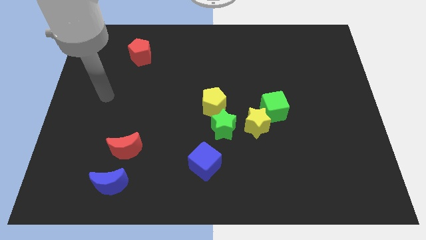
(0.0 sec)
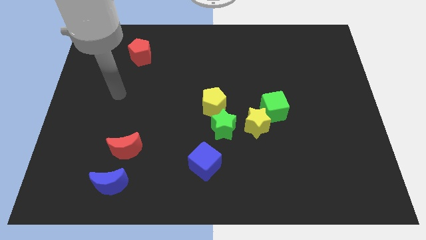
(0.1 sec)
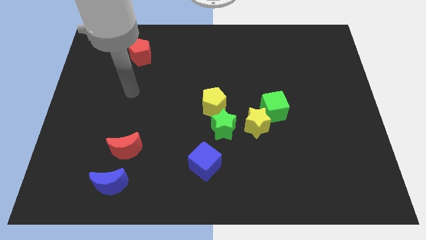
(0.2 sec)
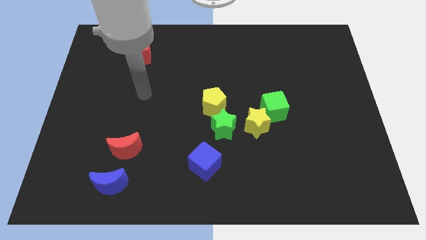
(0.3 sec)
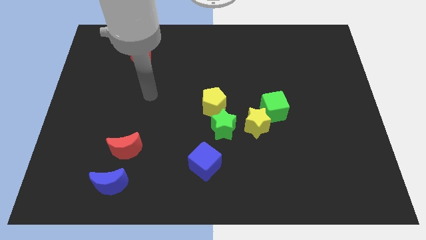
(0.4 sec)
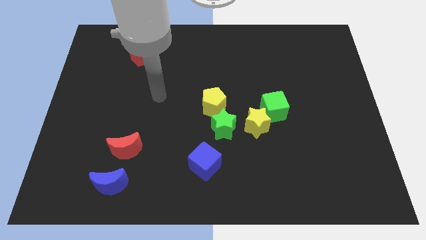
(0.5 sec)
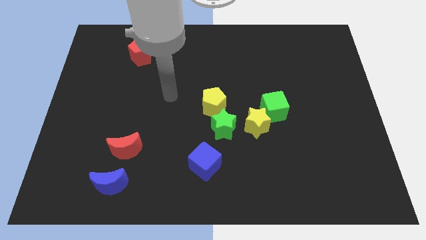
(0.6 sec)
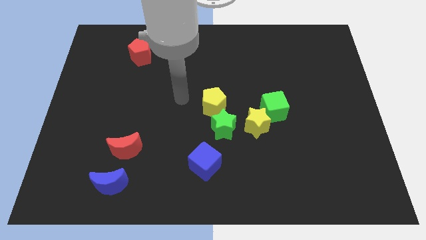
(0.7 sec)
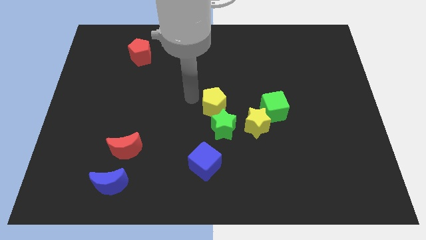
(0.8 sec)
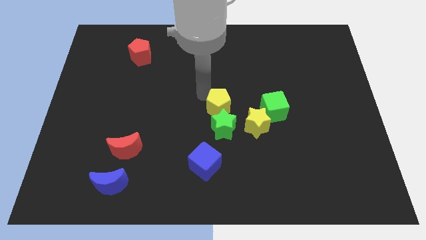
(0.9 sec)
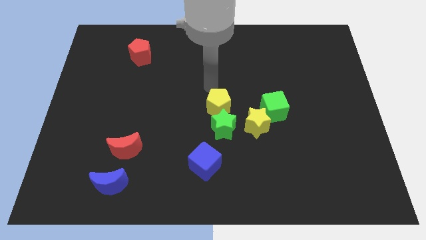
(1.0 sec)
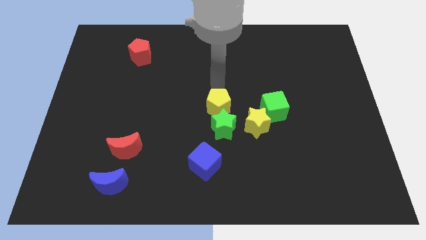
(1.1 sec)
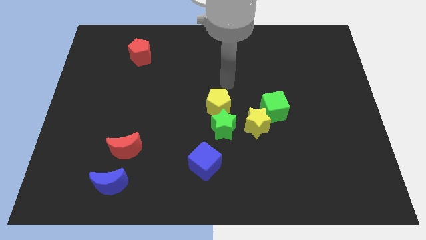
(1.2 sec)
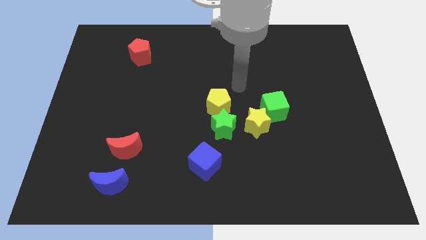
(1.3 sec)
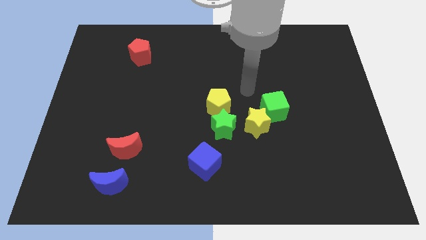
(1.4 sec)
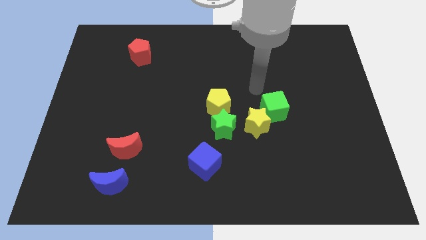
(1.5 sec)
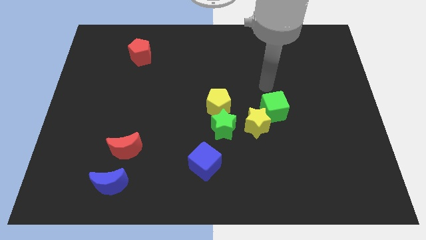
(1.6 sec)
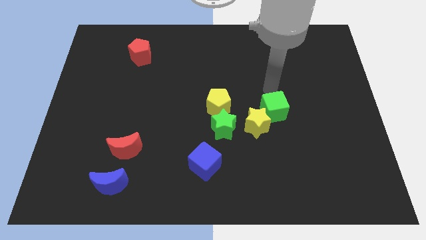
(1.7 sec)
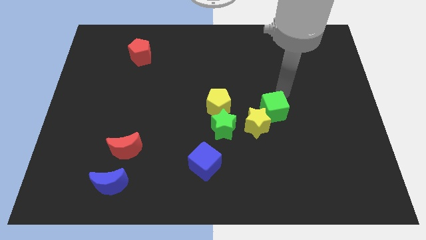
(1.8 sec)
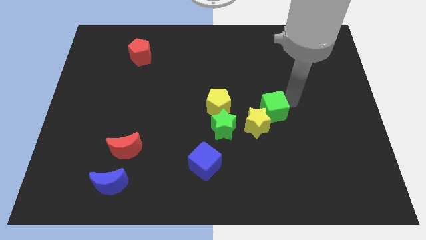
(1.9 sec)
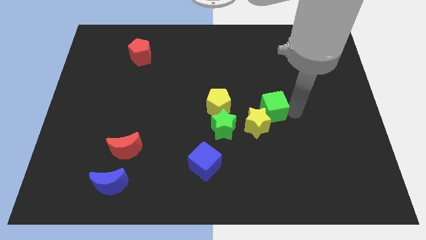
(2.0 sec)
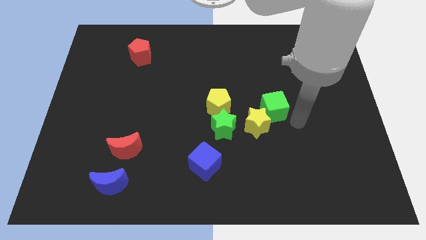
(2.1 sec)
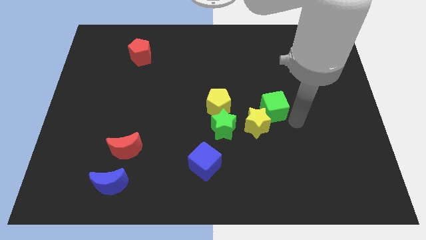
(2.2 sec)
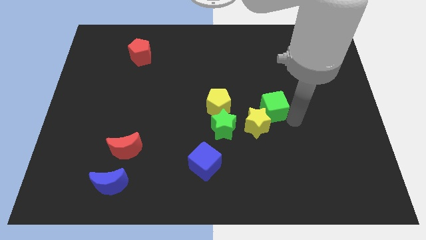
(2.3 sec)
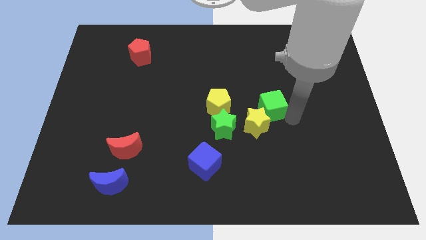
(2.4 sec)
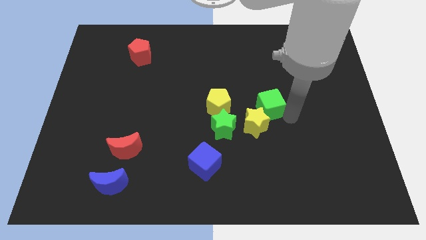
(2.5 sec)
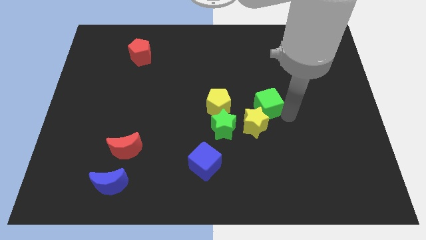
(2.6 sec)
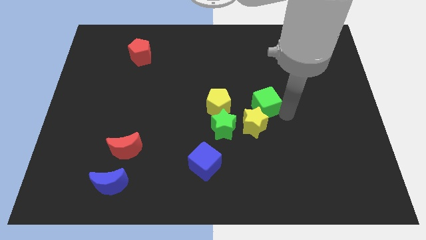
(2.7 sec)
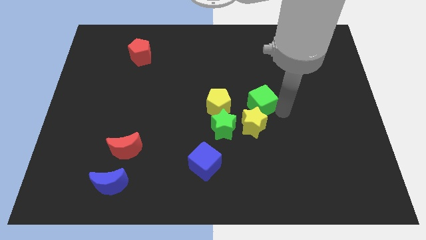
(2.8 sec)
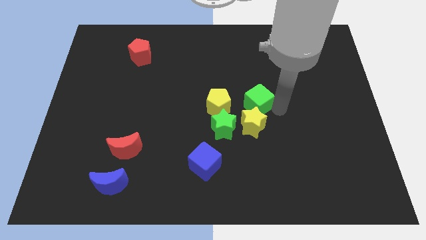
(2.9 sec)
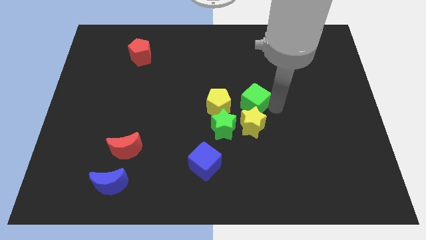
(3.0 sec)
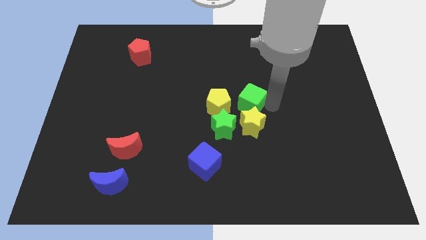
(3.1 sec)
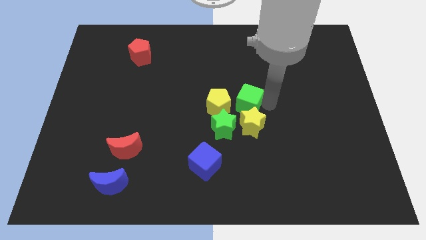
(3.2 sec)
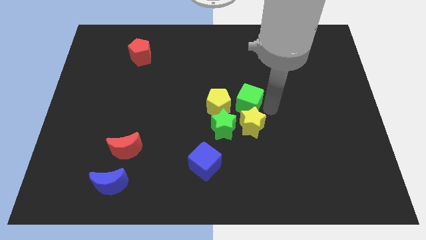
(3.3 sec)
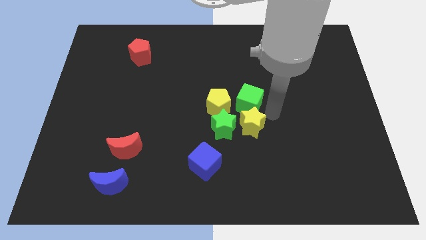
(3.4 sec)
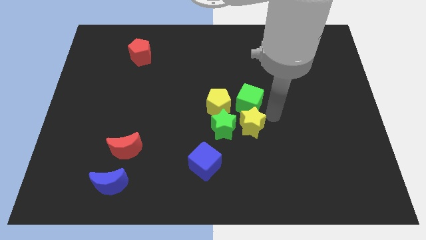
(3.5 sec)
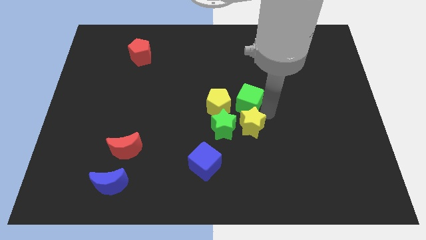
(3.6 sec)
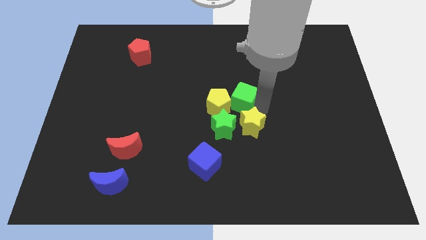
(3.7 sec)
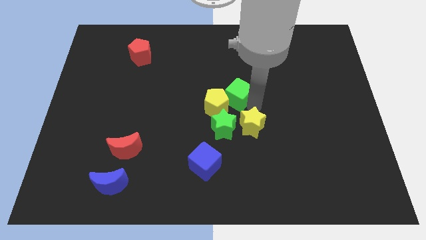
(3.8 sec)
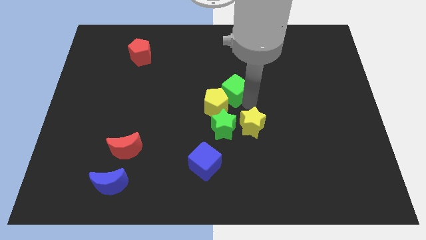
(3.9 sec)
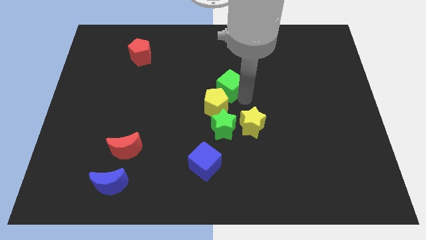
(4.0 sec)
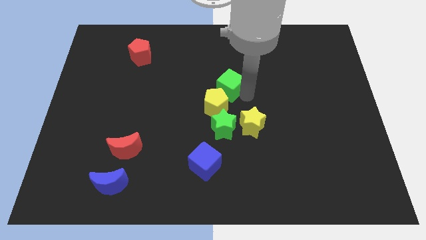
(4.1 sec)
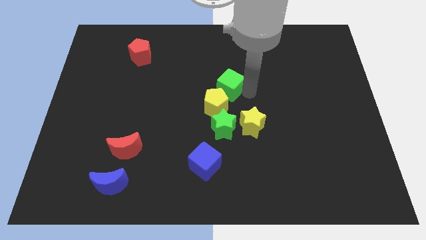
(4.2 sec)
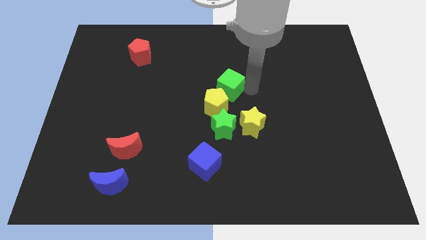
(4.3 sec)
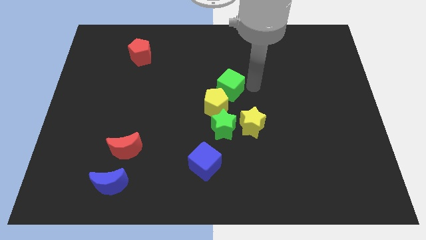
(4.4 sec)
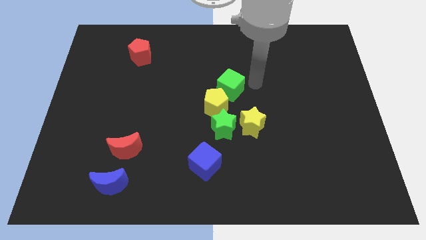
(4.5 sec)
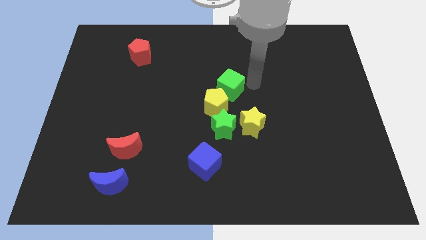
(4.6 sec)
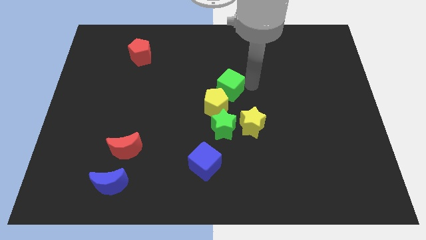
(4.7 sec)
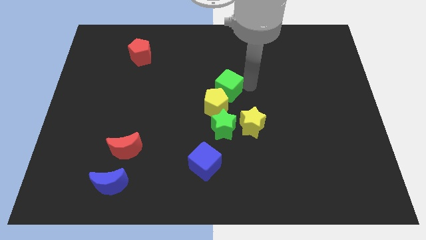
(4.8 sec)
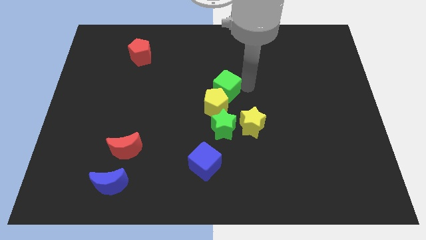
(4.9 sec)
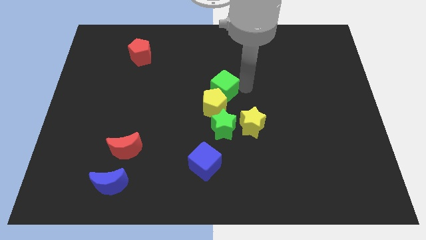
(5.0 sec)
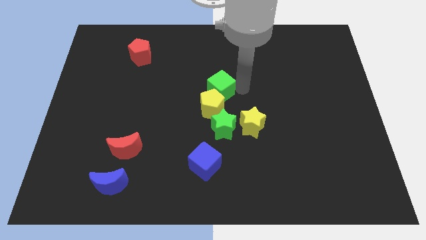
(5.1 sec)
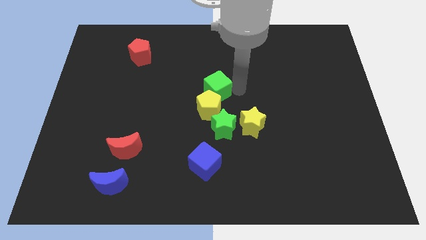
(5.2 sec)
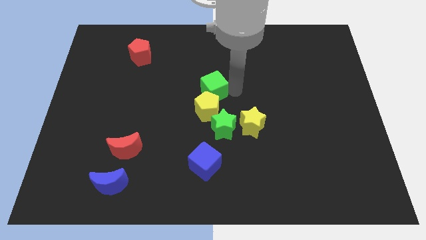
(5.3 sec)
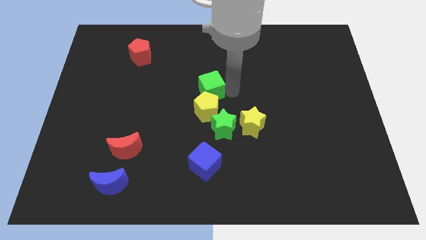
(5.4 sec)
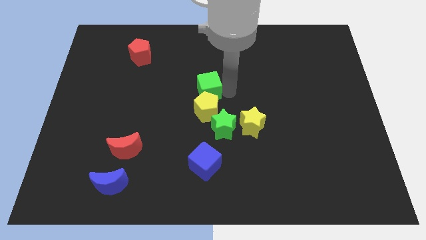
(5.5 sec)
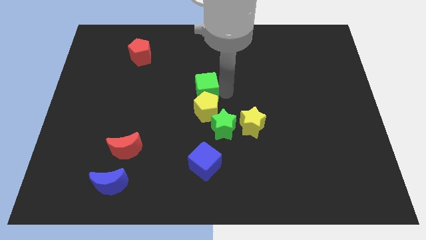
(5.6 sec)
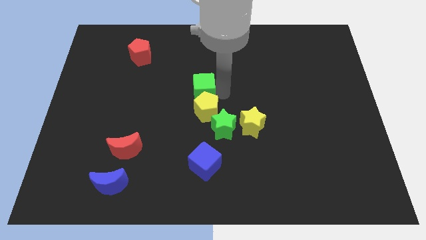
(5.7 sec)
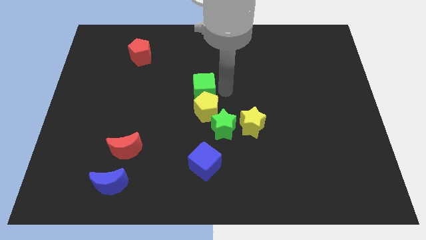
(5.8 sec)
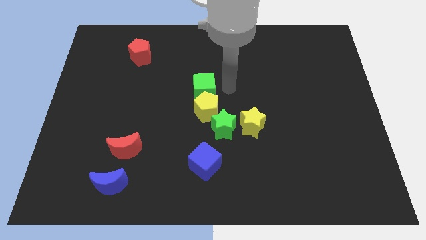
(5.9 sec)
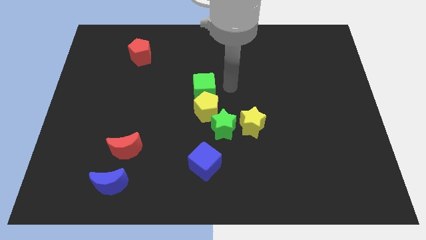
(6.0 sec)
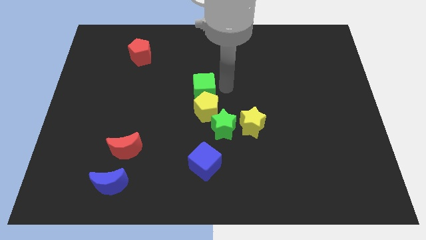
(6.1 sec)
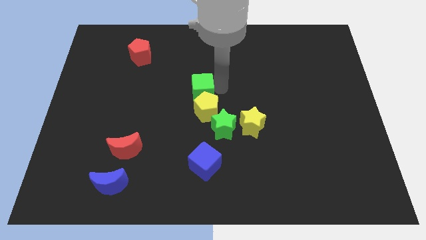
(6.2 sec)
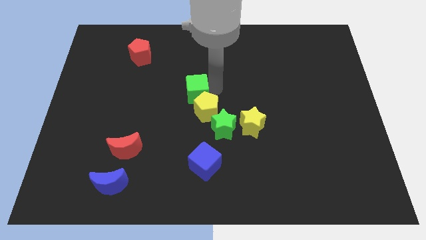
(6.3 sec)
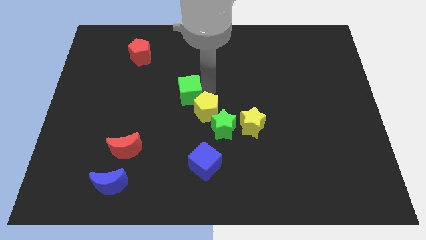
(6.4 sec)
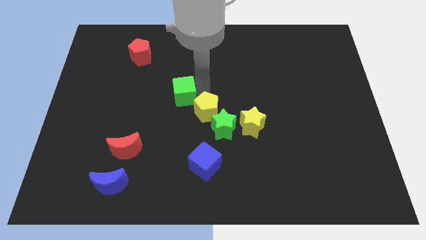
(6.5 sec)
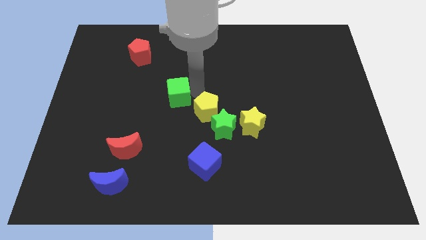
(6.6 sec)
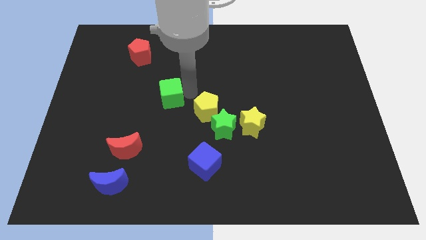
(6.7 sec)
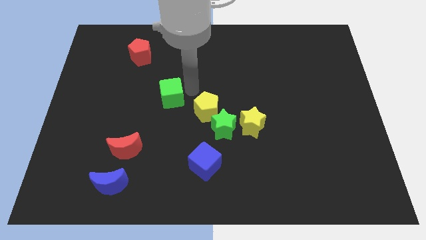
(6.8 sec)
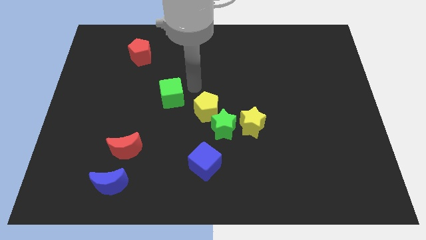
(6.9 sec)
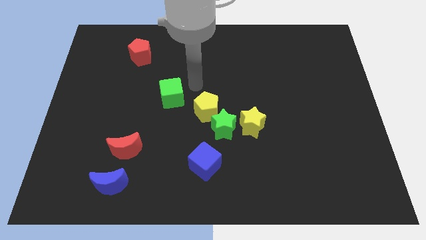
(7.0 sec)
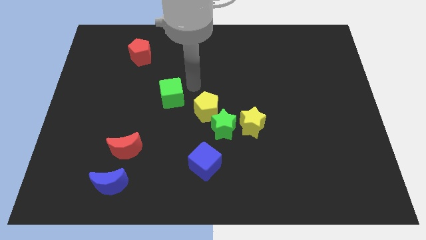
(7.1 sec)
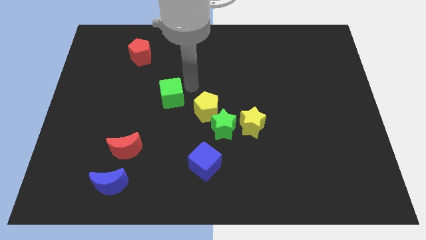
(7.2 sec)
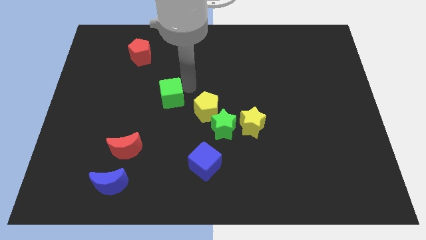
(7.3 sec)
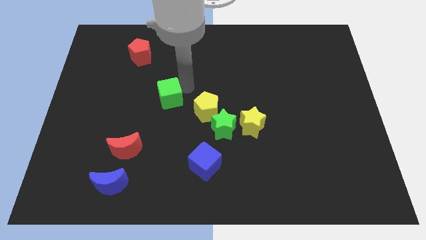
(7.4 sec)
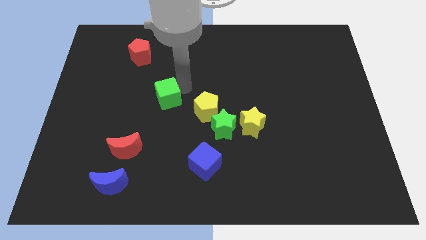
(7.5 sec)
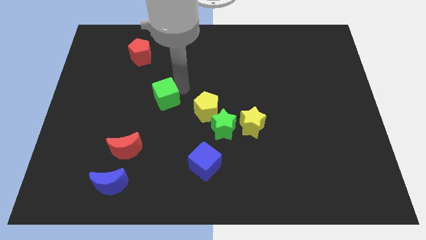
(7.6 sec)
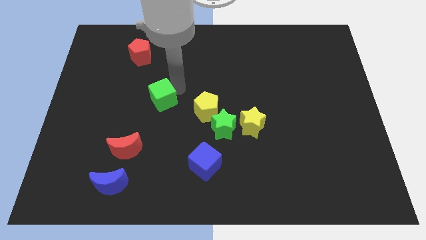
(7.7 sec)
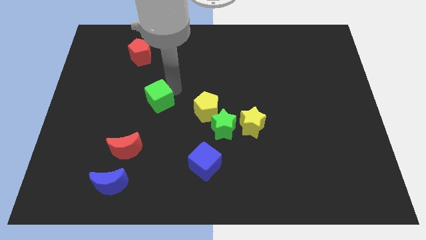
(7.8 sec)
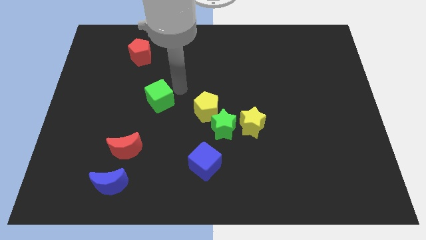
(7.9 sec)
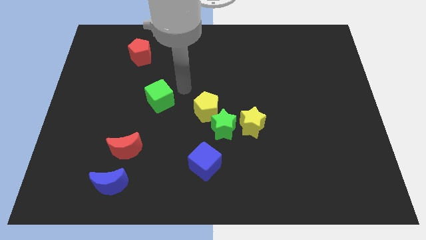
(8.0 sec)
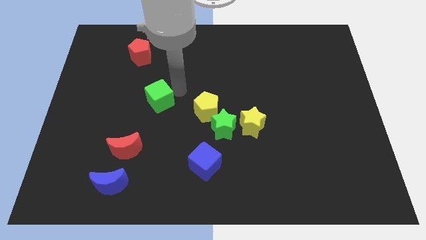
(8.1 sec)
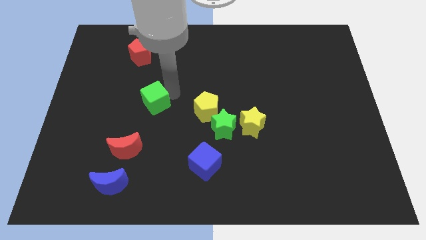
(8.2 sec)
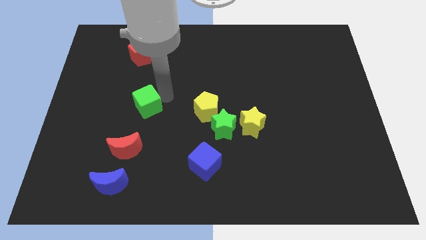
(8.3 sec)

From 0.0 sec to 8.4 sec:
put the green cube above the red moon
